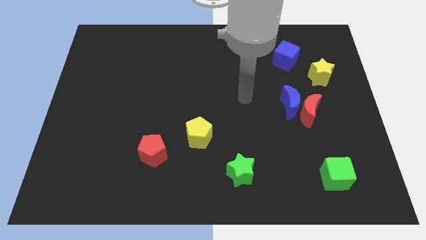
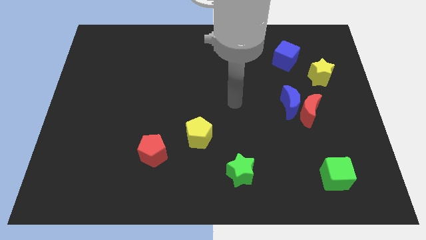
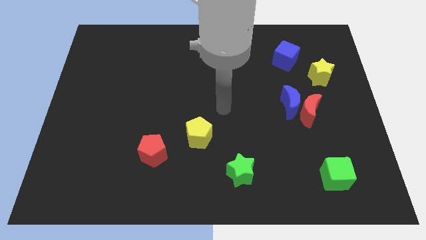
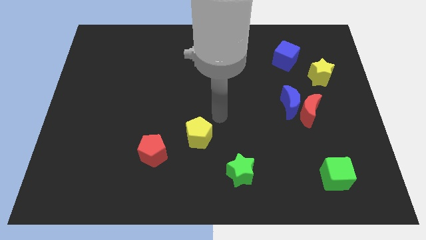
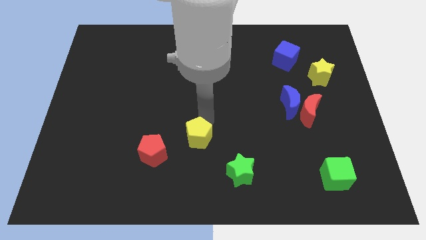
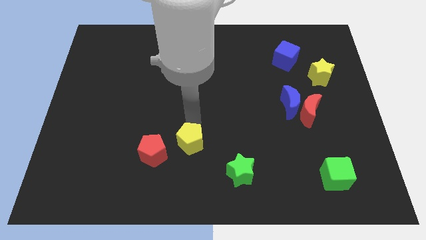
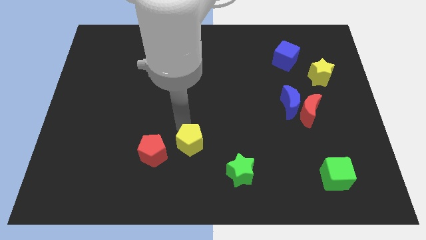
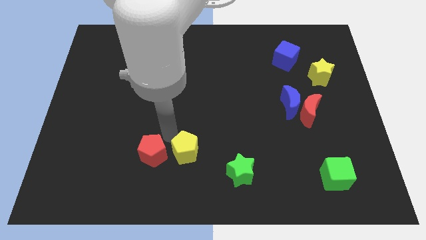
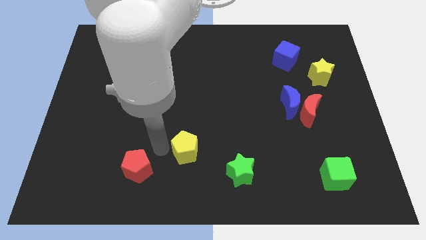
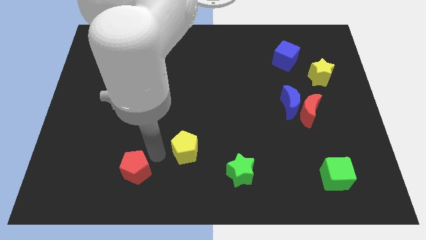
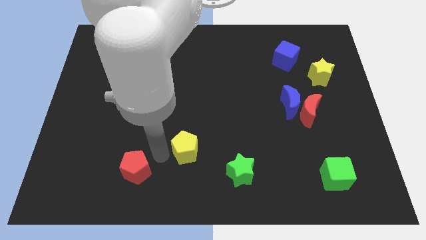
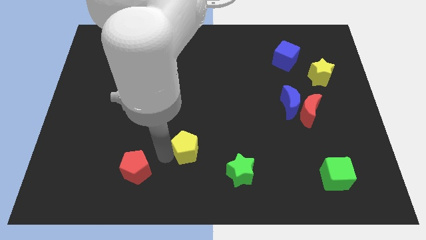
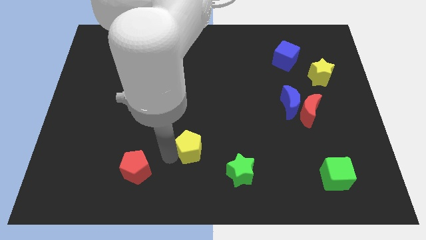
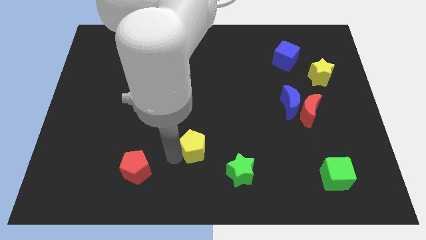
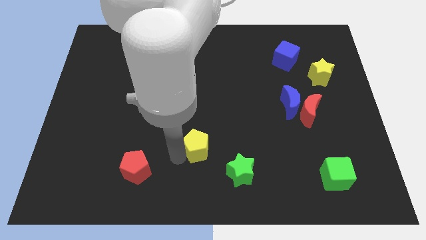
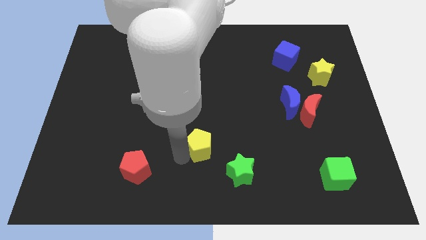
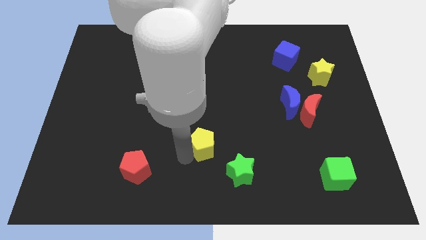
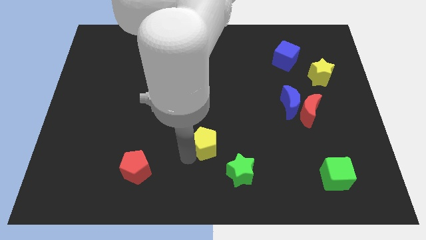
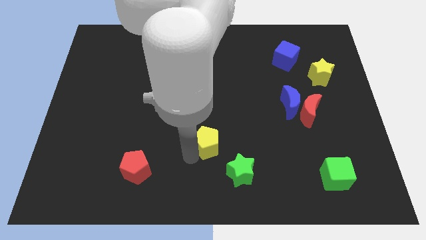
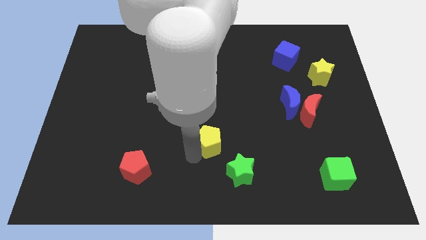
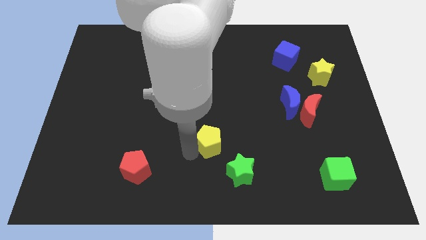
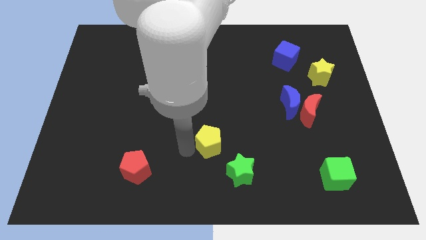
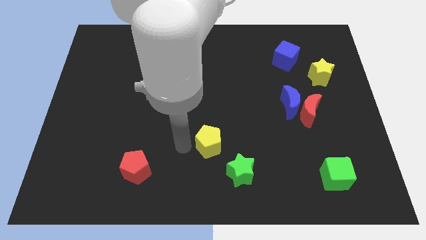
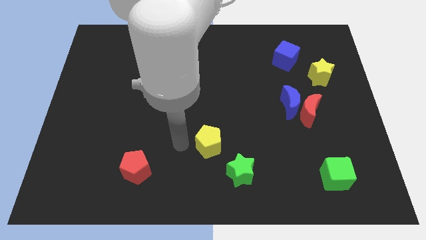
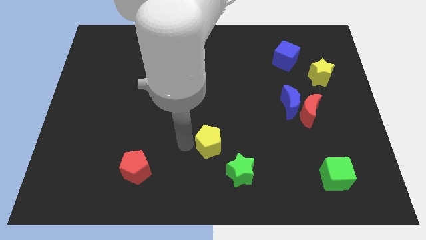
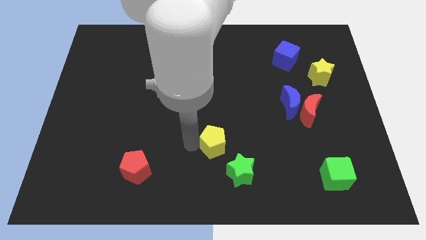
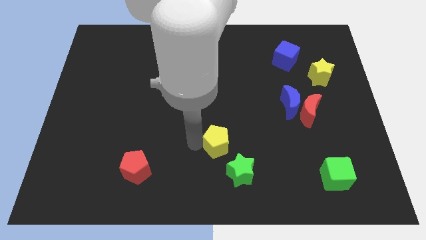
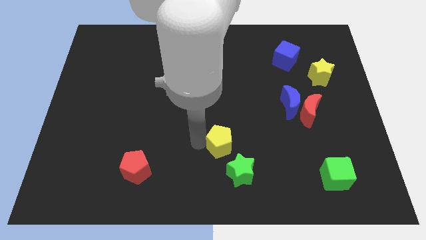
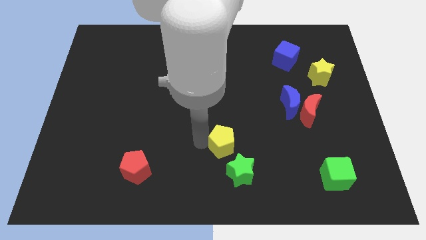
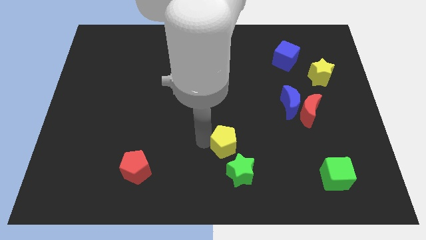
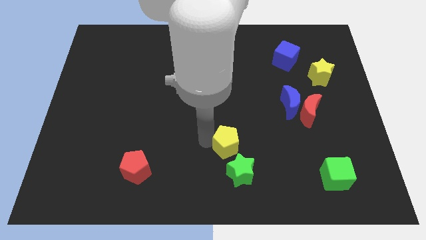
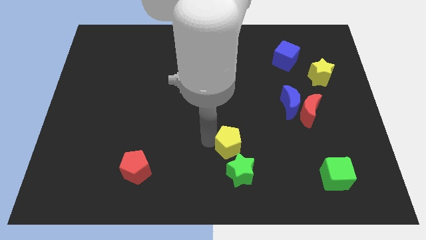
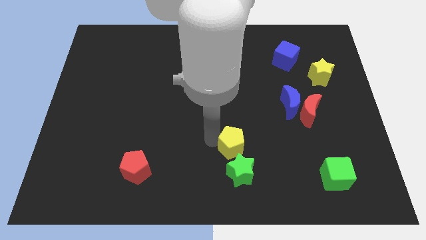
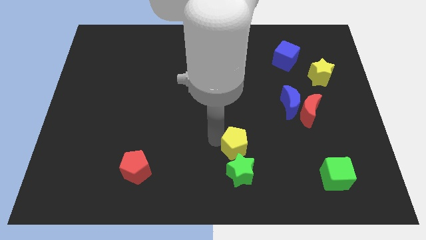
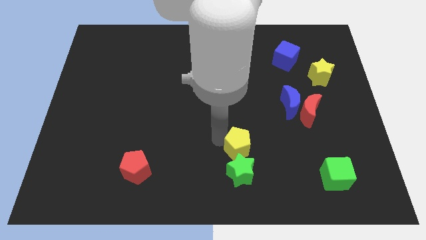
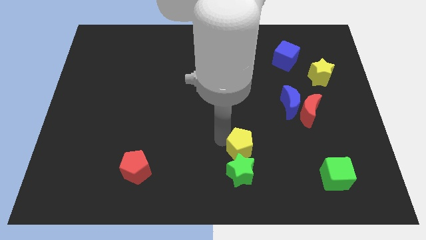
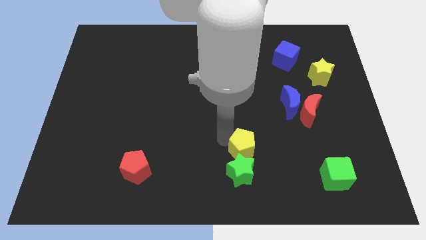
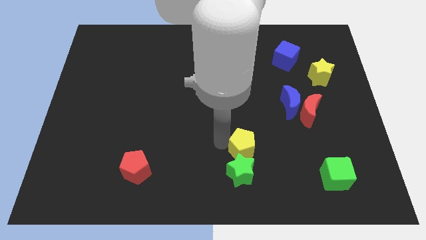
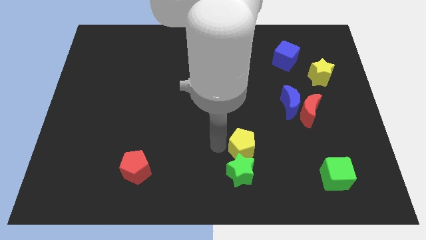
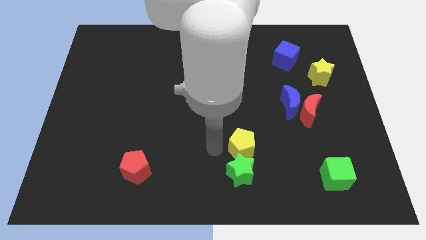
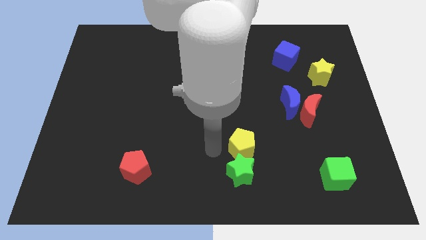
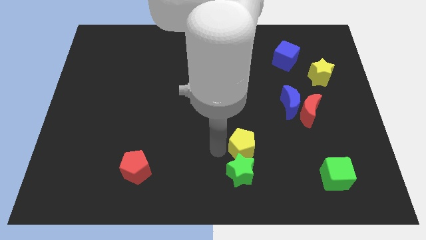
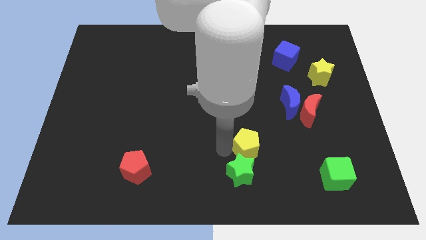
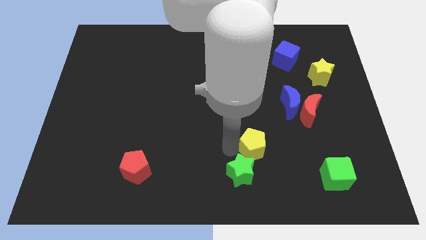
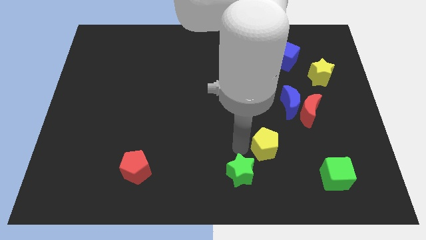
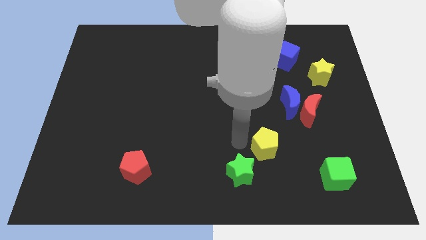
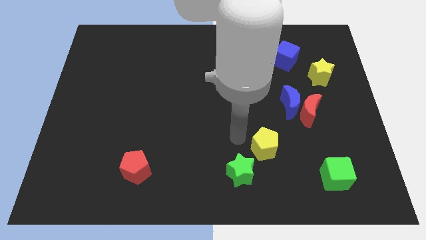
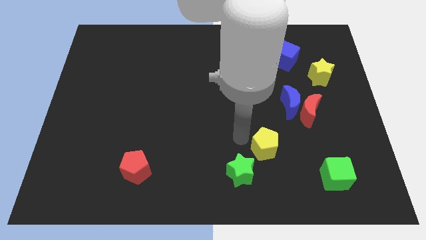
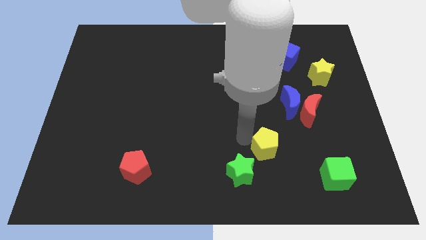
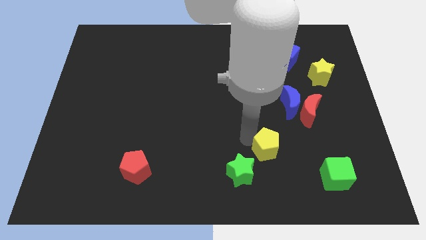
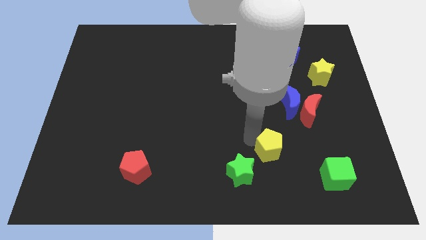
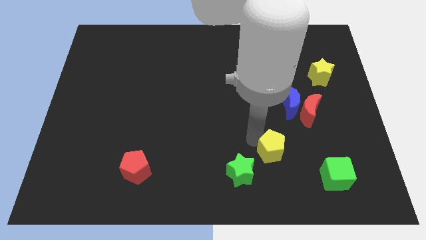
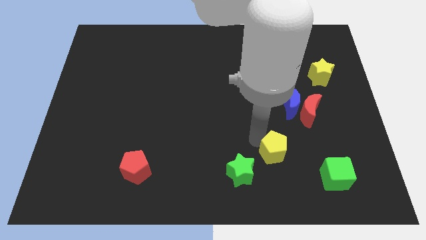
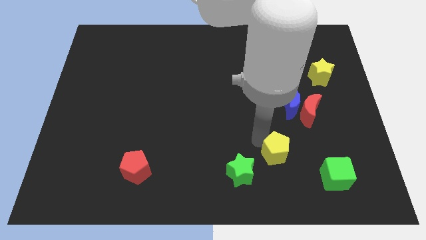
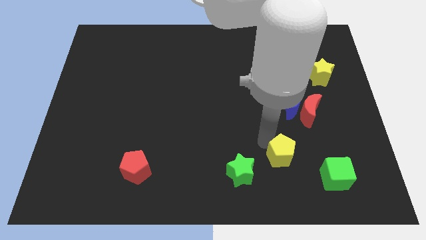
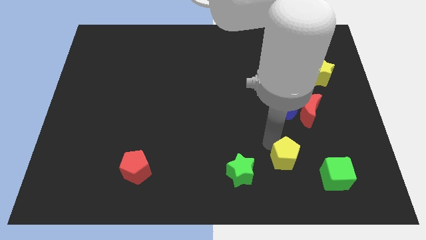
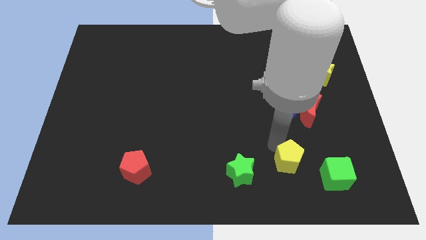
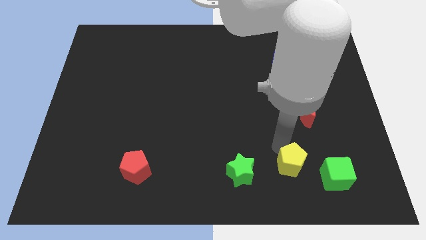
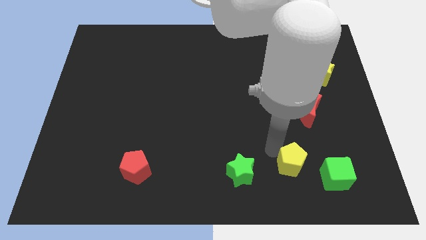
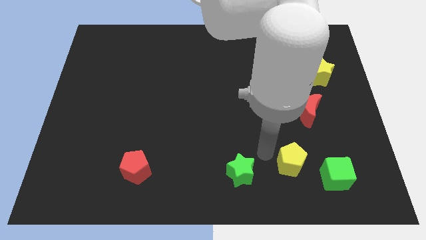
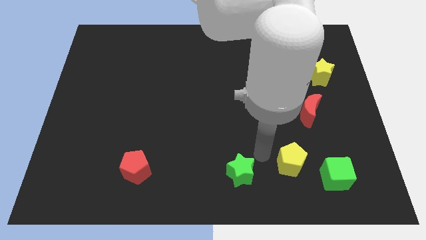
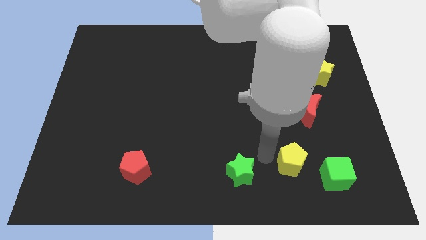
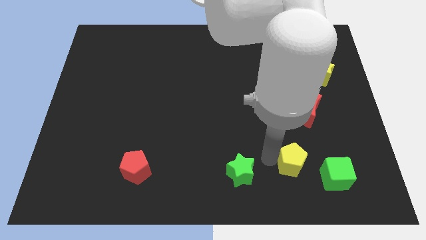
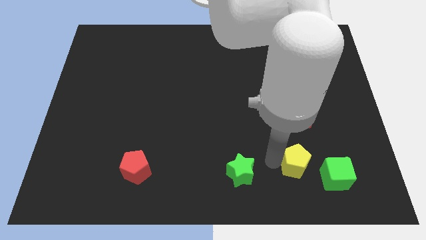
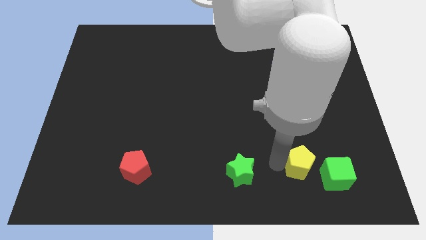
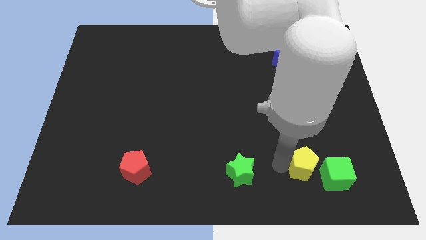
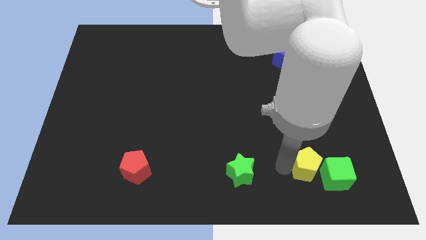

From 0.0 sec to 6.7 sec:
put the yellow pentagon close to the green cube
